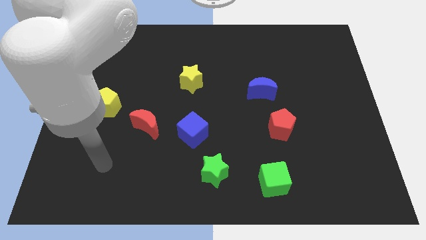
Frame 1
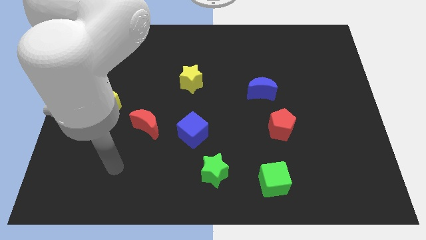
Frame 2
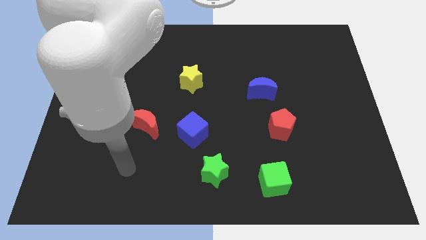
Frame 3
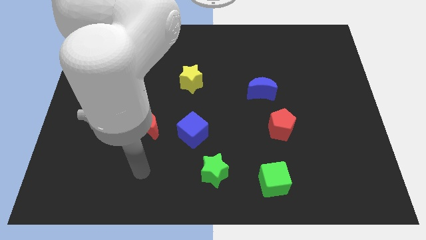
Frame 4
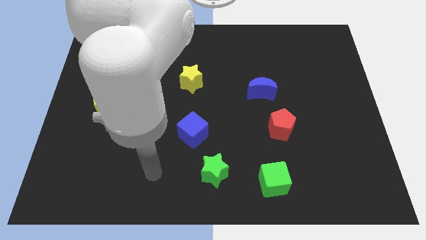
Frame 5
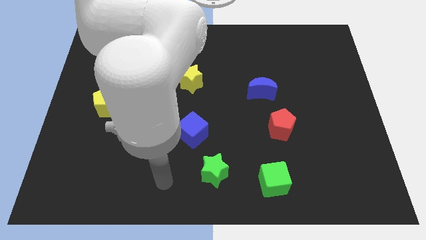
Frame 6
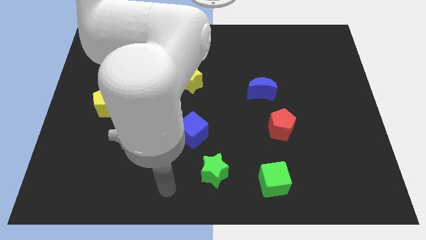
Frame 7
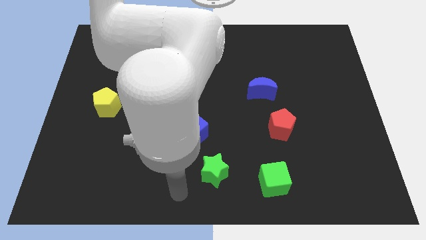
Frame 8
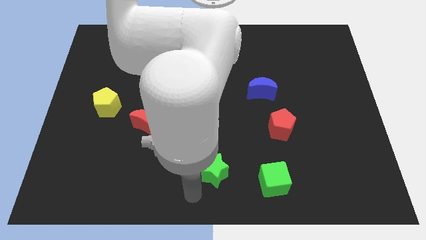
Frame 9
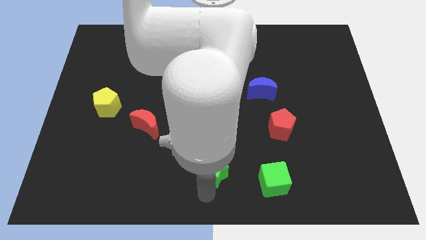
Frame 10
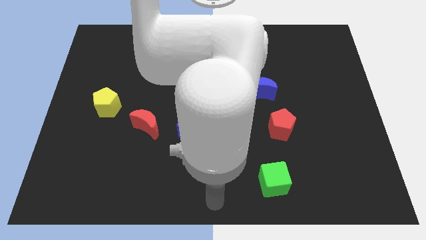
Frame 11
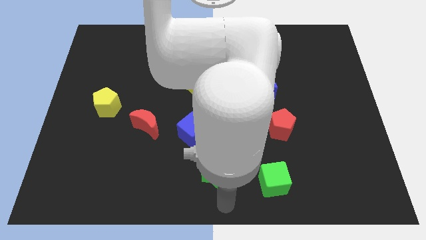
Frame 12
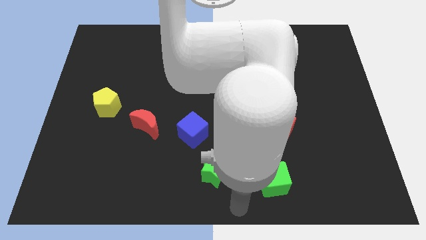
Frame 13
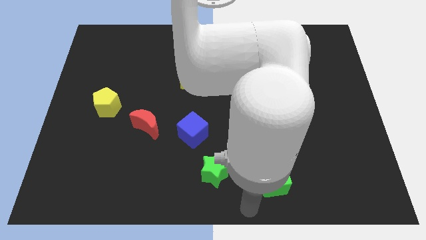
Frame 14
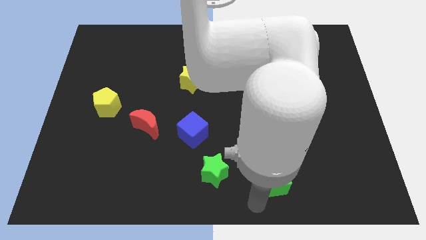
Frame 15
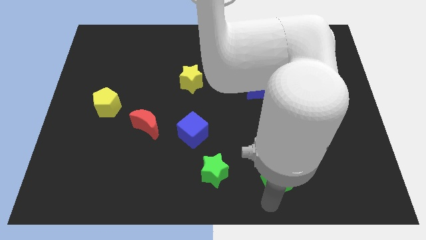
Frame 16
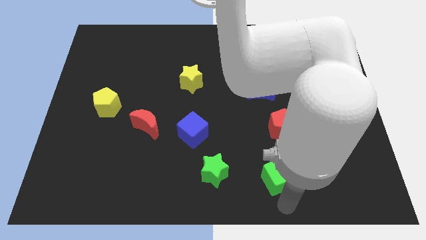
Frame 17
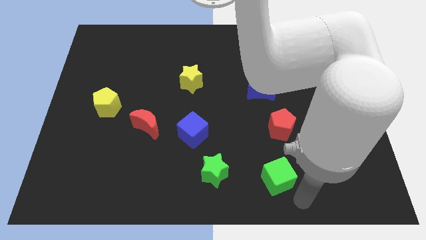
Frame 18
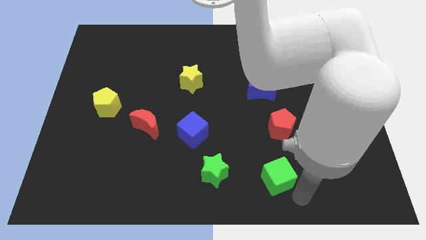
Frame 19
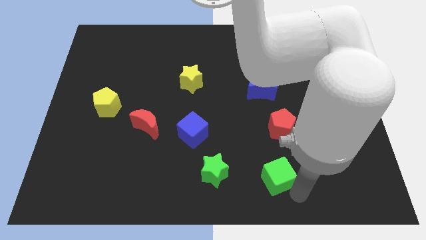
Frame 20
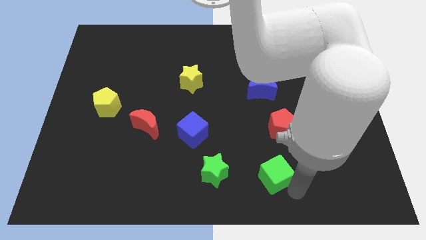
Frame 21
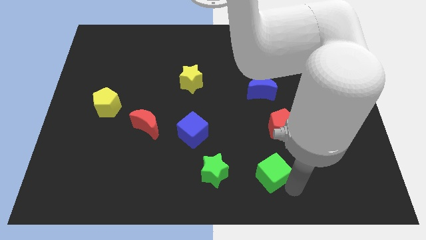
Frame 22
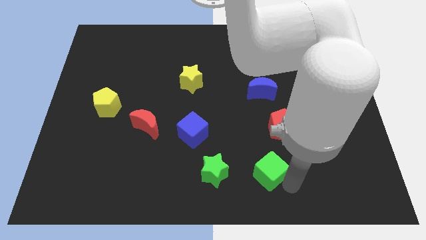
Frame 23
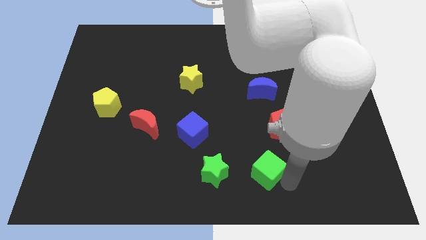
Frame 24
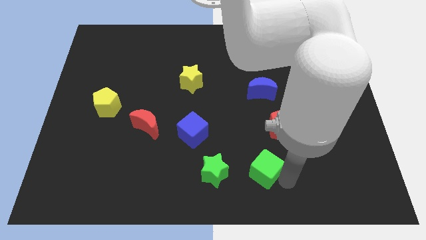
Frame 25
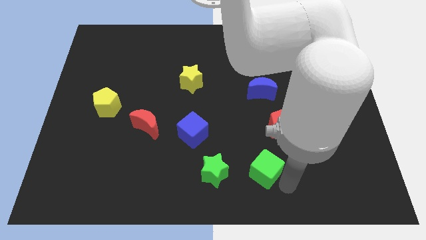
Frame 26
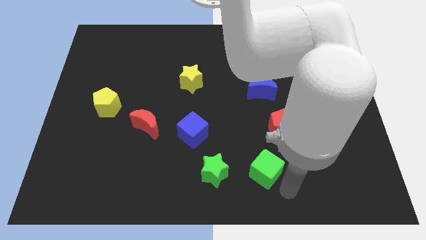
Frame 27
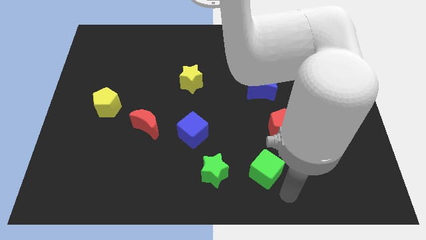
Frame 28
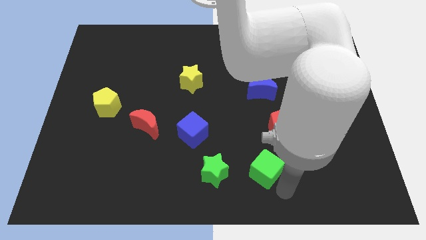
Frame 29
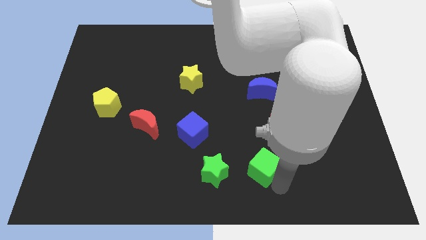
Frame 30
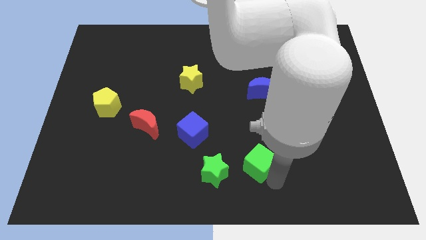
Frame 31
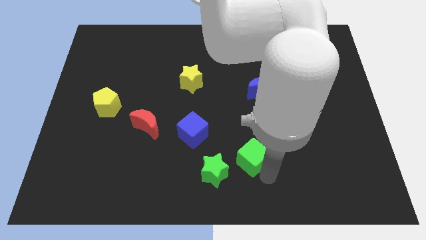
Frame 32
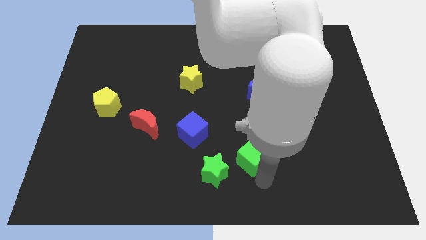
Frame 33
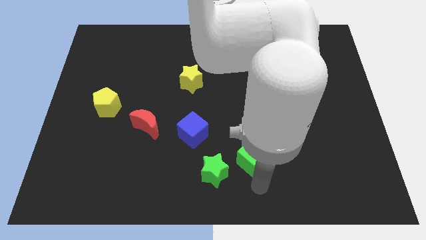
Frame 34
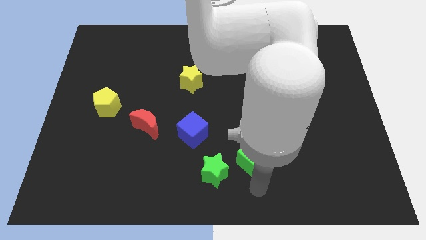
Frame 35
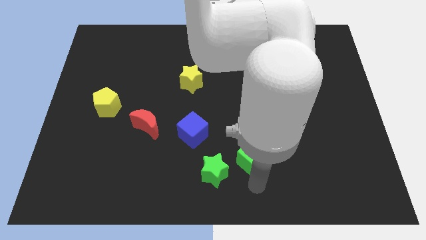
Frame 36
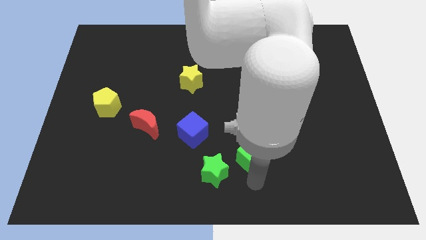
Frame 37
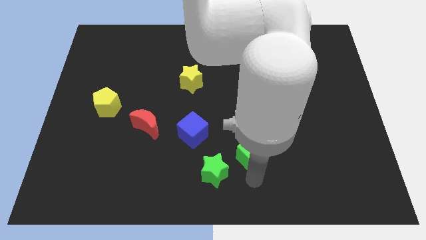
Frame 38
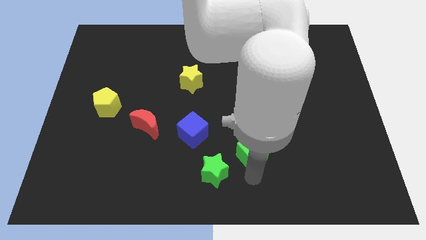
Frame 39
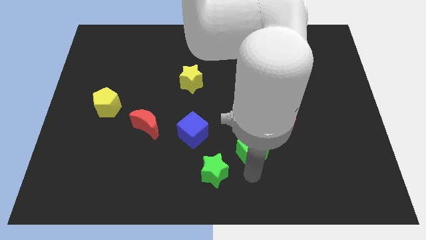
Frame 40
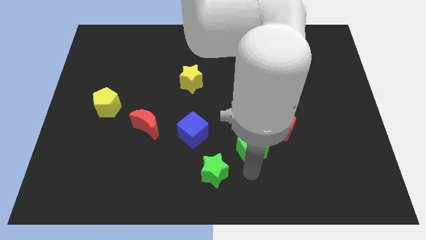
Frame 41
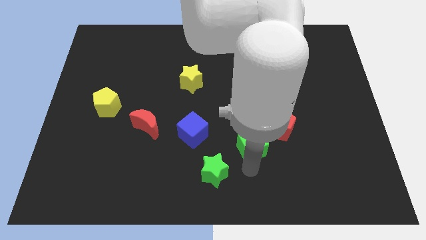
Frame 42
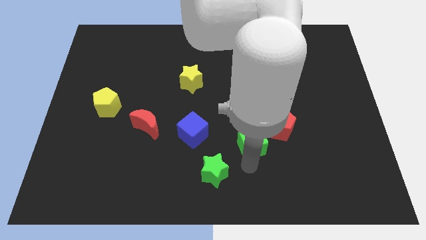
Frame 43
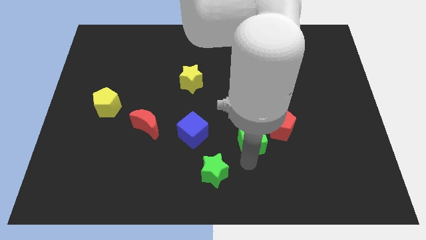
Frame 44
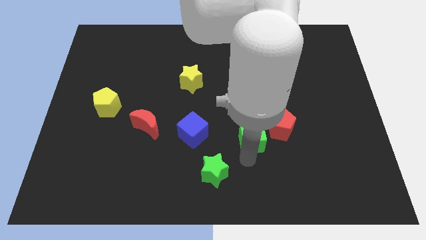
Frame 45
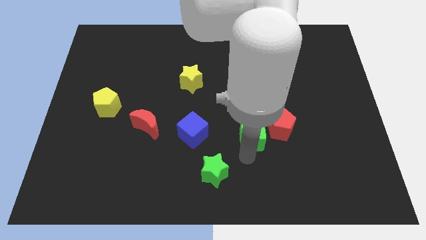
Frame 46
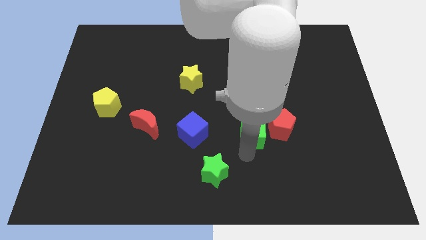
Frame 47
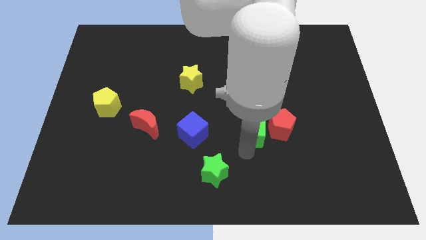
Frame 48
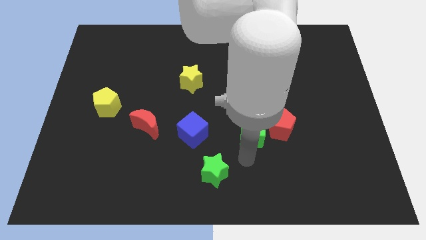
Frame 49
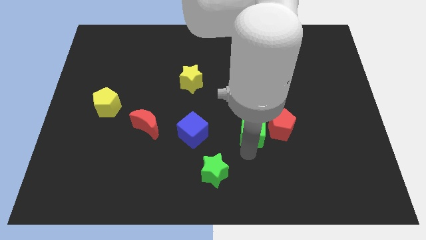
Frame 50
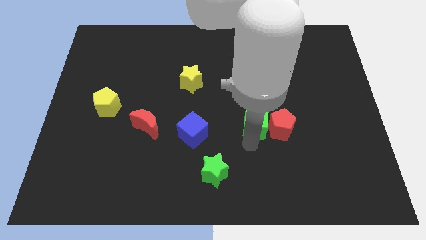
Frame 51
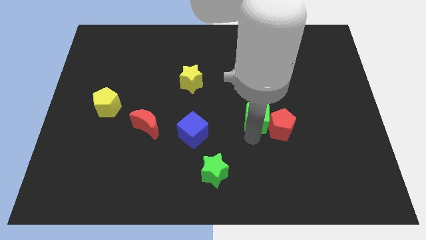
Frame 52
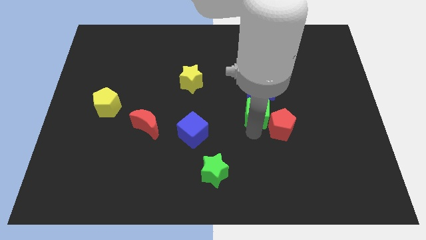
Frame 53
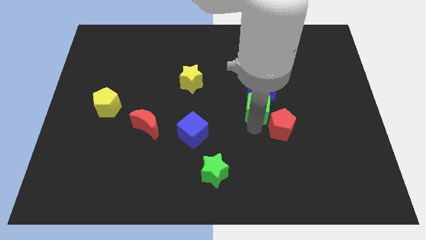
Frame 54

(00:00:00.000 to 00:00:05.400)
move the green cube to the blue moon

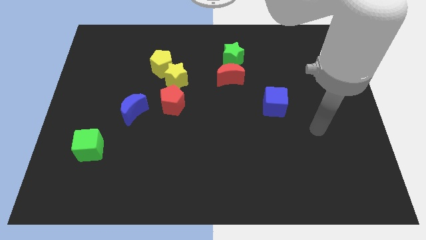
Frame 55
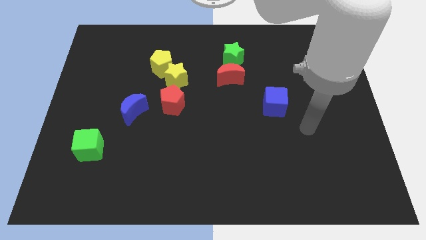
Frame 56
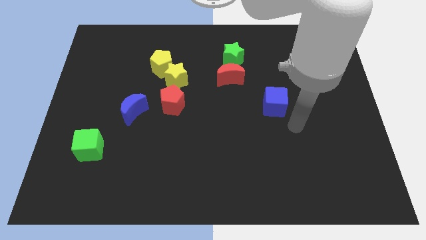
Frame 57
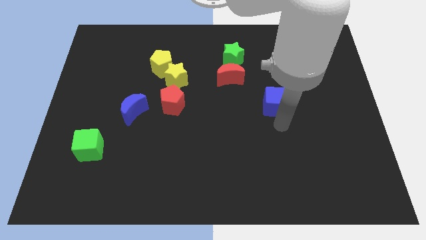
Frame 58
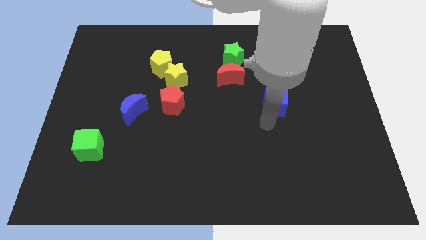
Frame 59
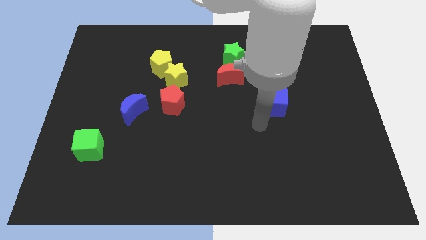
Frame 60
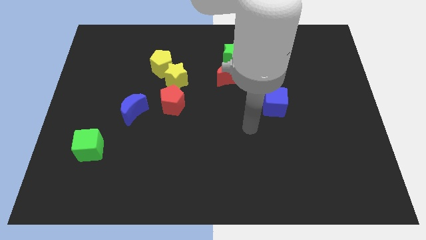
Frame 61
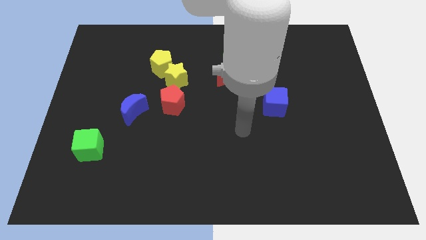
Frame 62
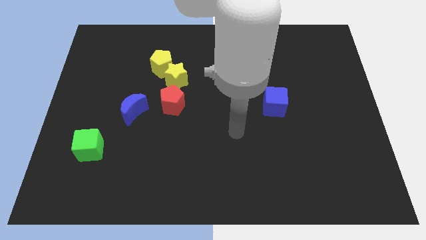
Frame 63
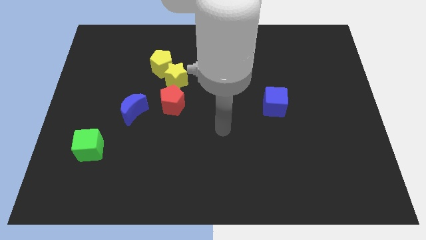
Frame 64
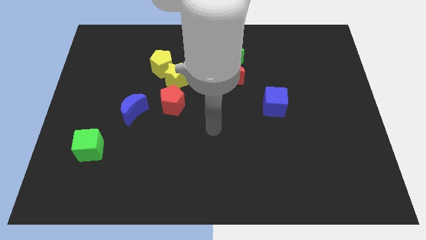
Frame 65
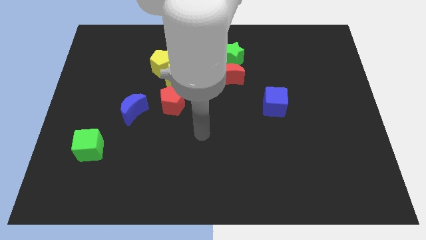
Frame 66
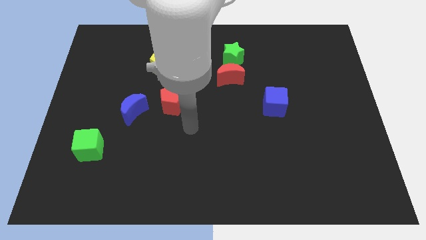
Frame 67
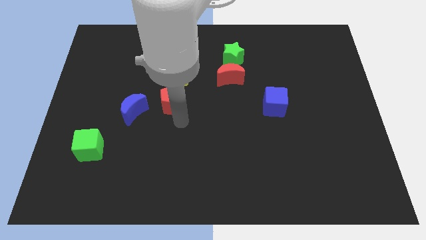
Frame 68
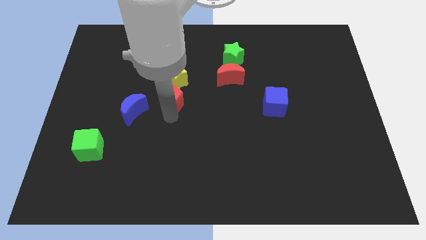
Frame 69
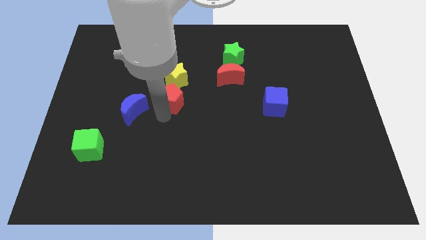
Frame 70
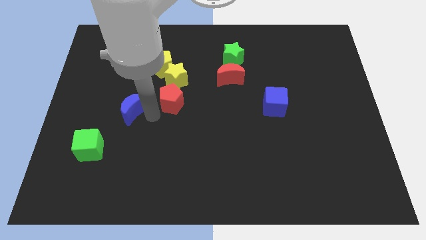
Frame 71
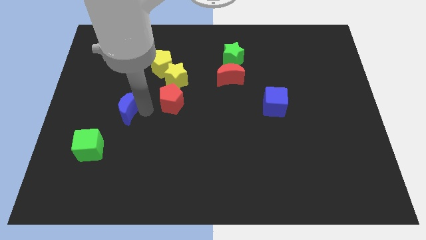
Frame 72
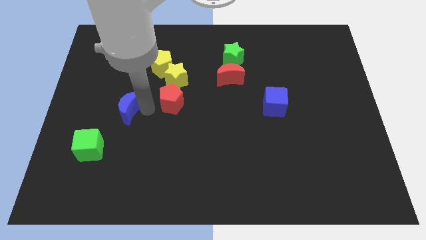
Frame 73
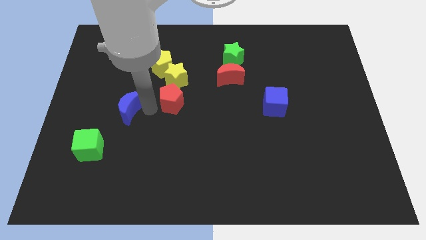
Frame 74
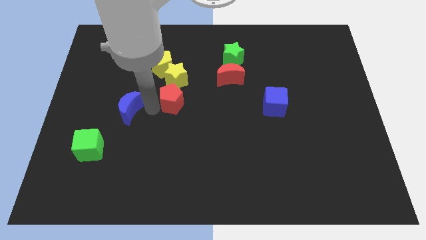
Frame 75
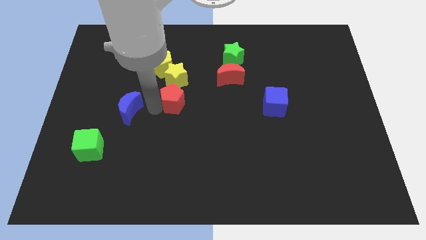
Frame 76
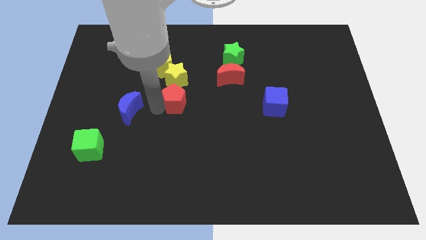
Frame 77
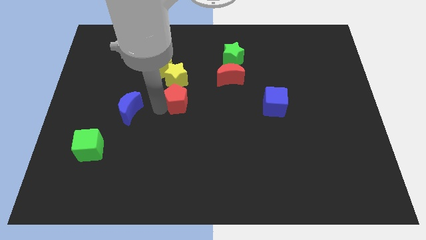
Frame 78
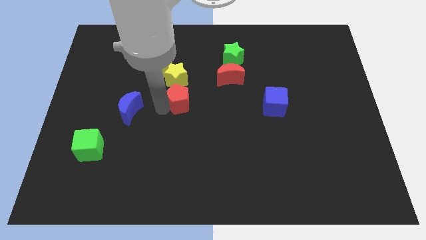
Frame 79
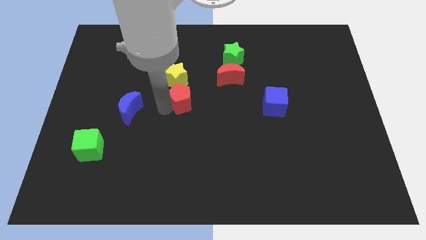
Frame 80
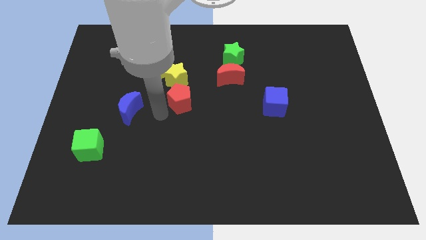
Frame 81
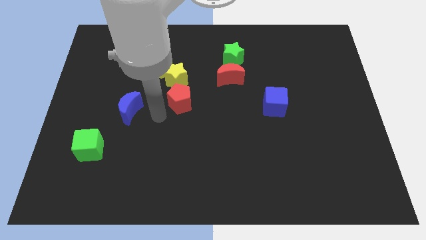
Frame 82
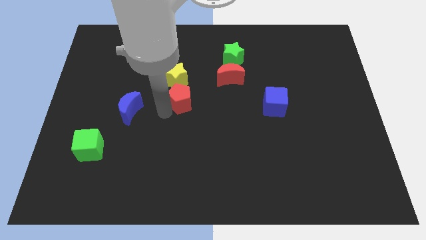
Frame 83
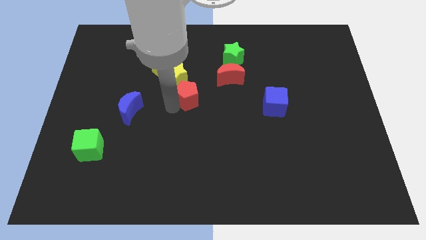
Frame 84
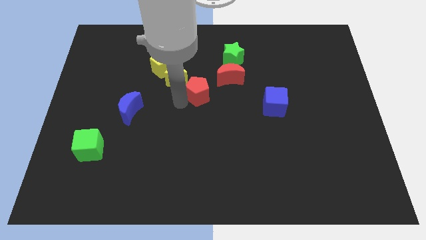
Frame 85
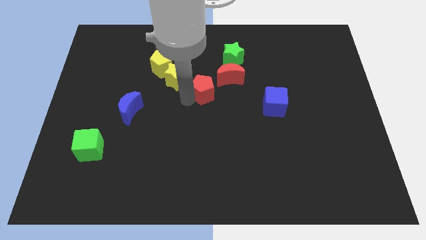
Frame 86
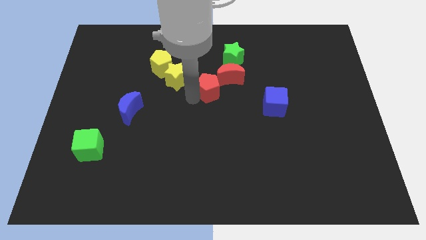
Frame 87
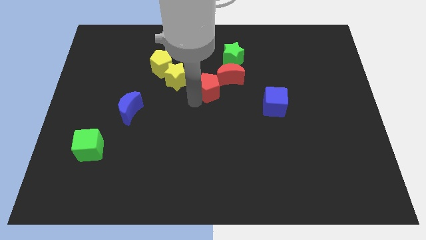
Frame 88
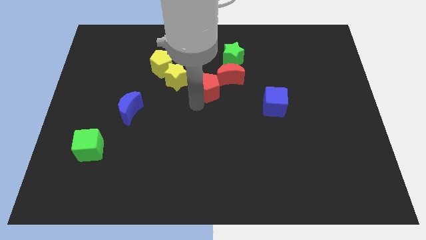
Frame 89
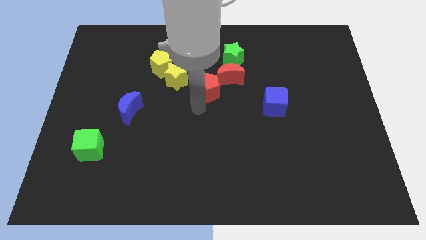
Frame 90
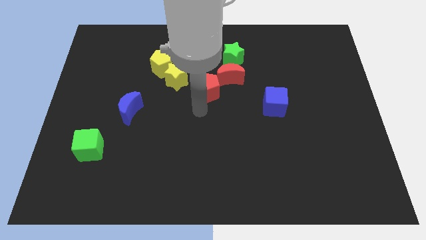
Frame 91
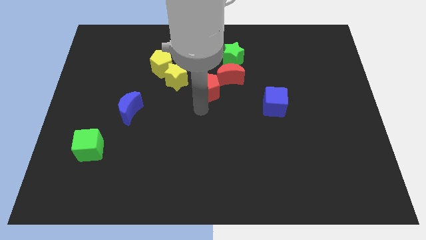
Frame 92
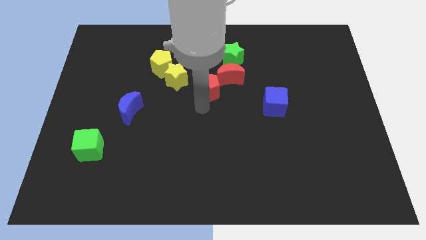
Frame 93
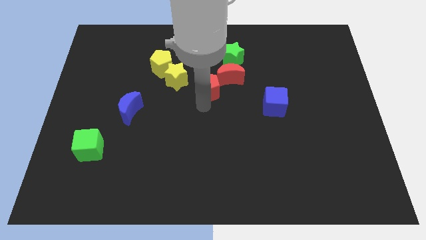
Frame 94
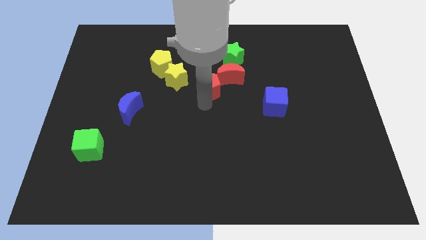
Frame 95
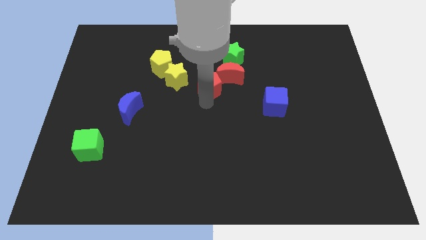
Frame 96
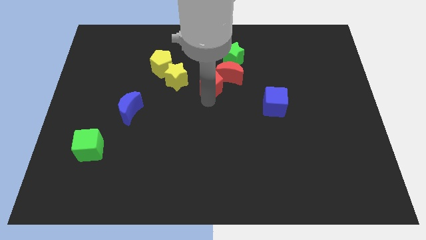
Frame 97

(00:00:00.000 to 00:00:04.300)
move the red pentagon next to the red moon
